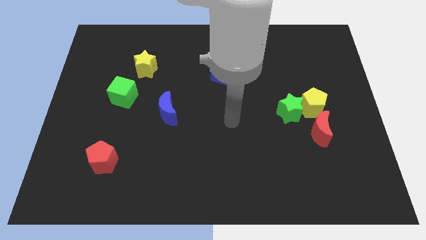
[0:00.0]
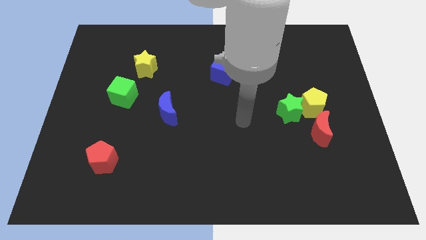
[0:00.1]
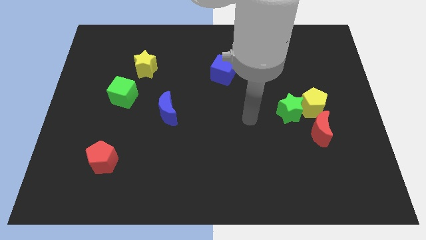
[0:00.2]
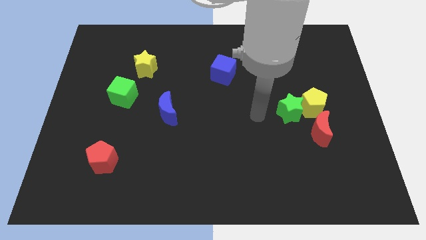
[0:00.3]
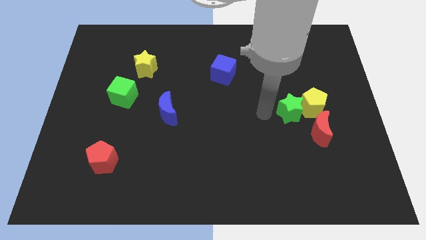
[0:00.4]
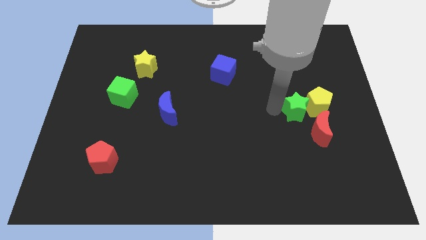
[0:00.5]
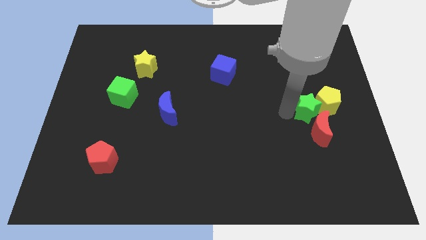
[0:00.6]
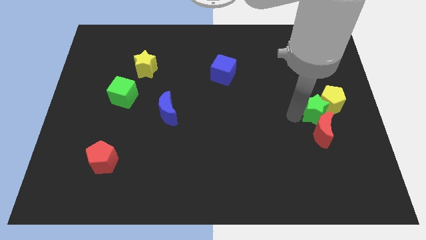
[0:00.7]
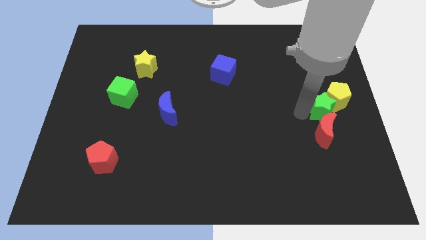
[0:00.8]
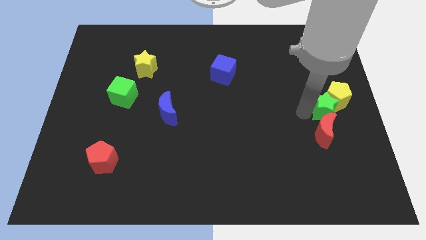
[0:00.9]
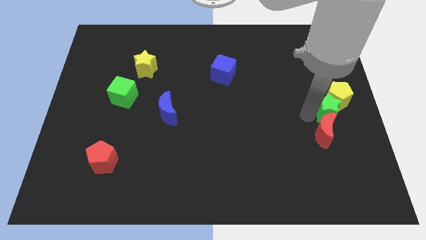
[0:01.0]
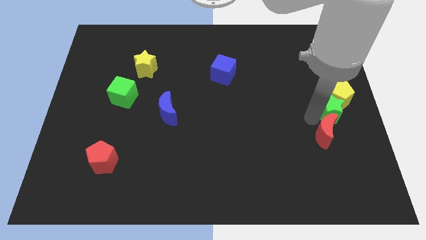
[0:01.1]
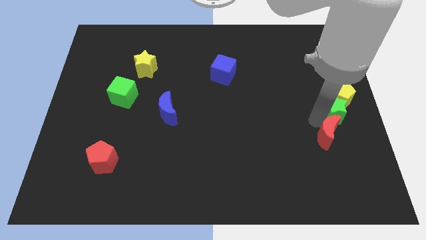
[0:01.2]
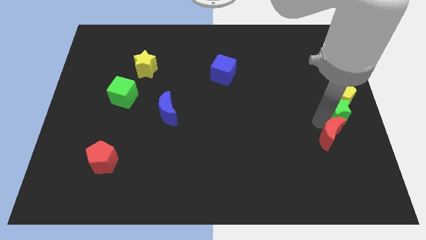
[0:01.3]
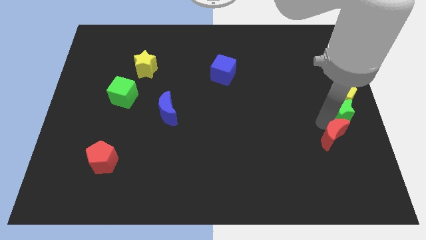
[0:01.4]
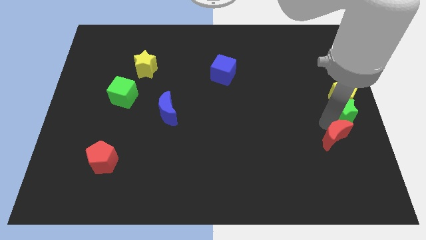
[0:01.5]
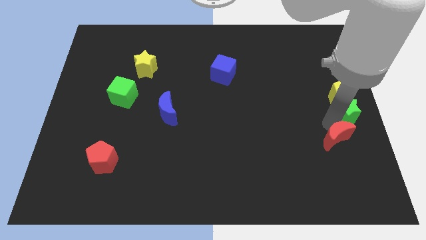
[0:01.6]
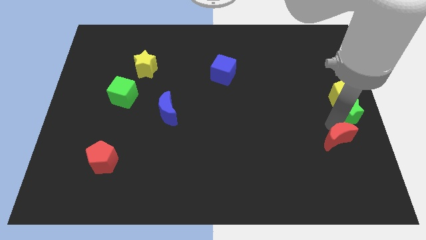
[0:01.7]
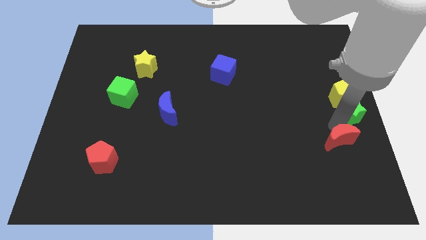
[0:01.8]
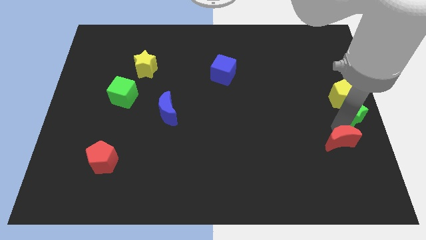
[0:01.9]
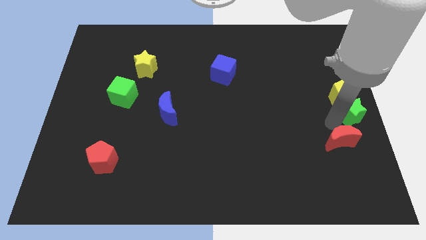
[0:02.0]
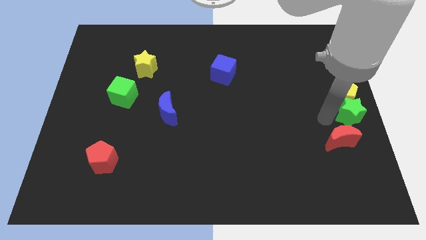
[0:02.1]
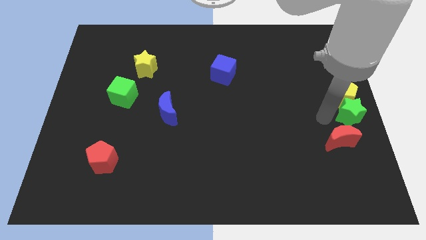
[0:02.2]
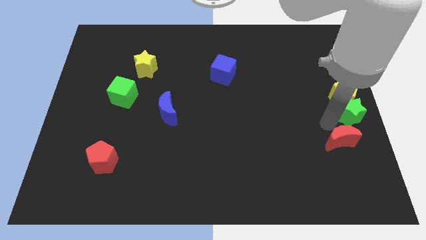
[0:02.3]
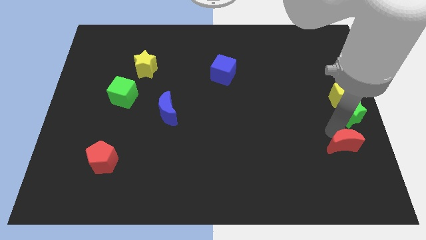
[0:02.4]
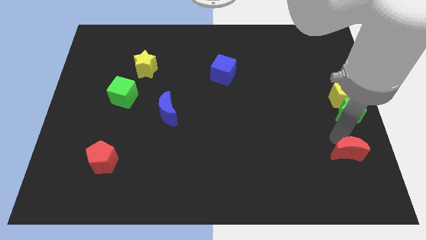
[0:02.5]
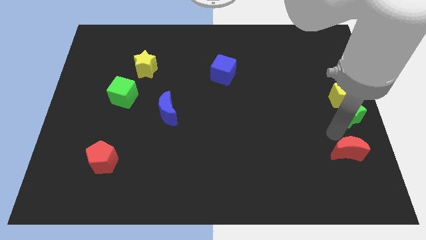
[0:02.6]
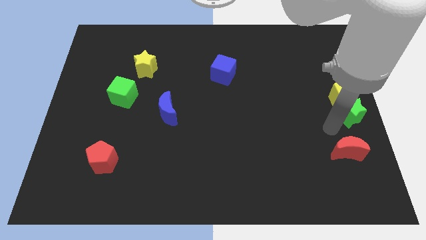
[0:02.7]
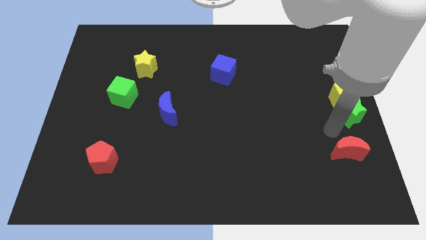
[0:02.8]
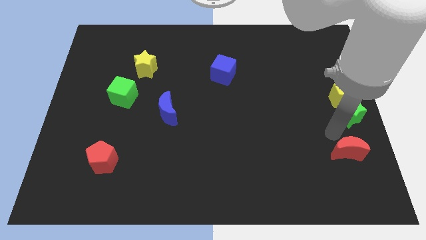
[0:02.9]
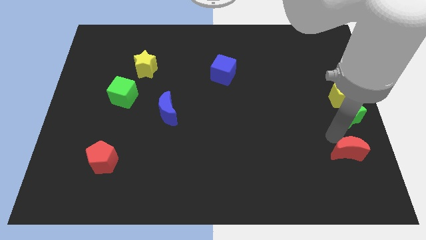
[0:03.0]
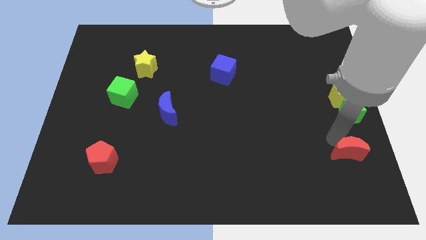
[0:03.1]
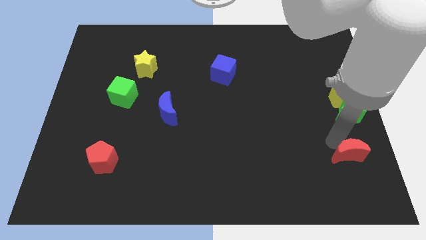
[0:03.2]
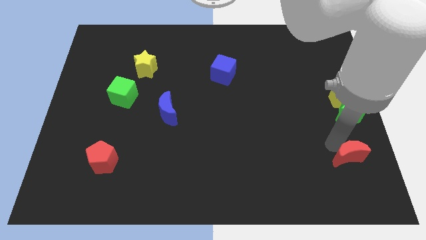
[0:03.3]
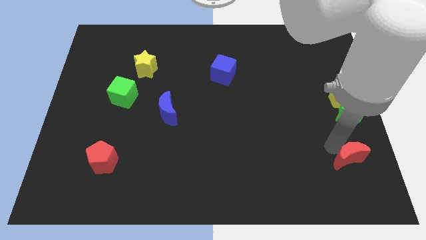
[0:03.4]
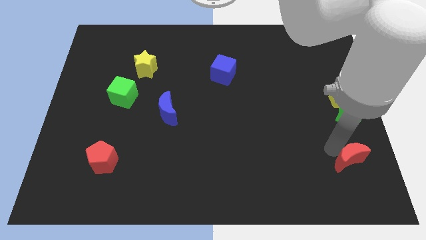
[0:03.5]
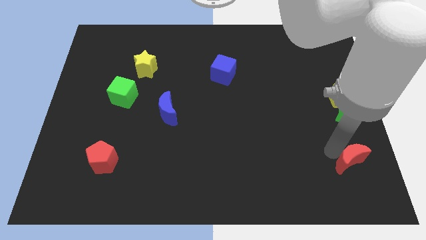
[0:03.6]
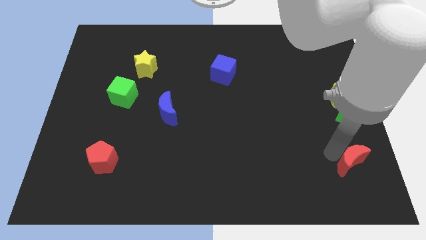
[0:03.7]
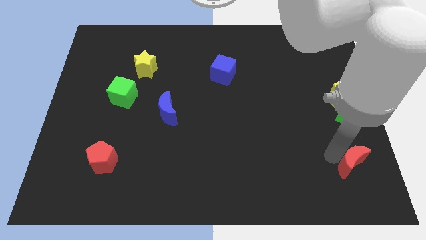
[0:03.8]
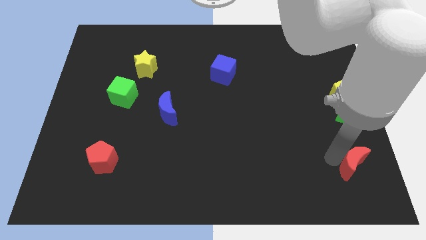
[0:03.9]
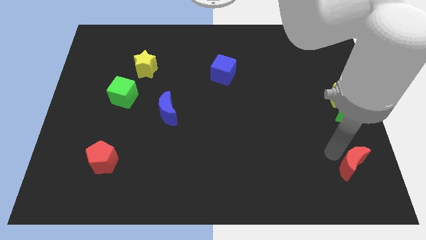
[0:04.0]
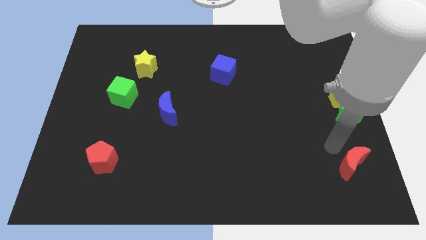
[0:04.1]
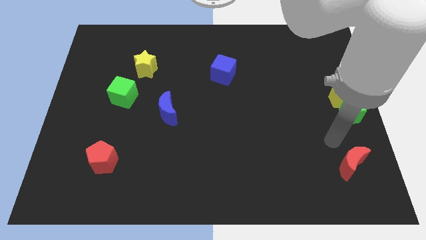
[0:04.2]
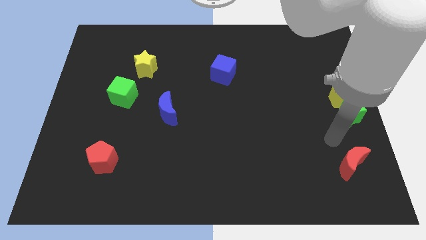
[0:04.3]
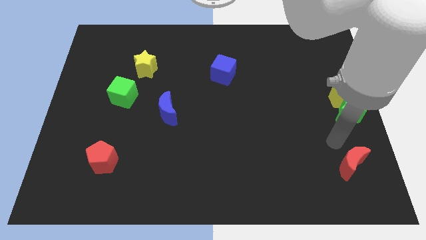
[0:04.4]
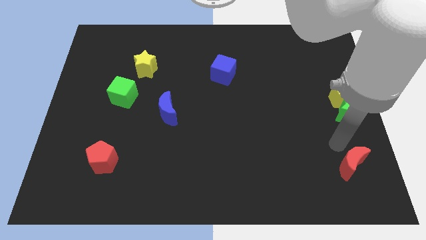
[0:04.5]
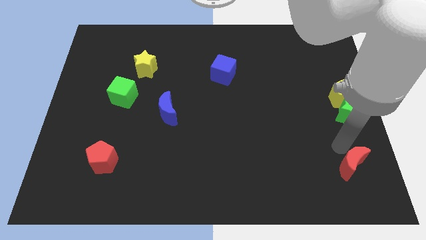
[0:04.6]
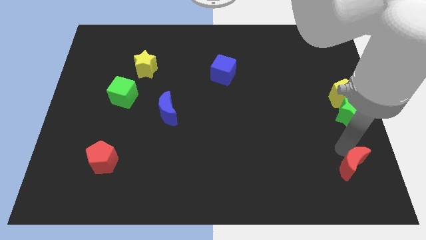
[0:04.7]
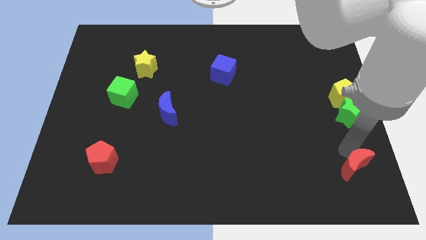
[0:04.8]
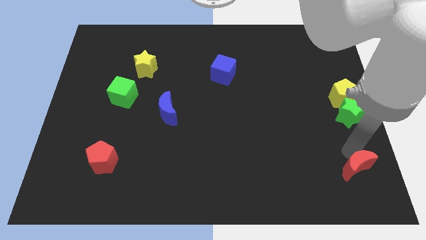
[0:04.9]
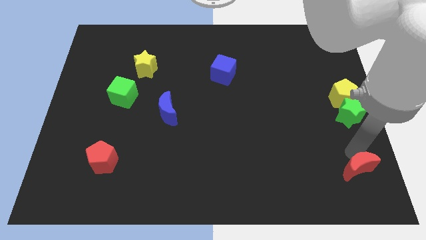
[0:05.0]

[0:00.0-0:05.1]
slide the red moon to the bottom right corner
